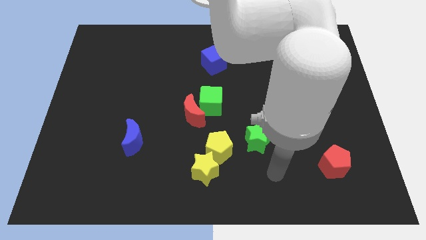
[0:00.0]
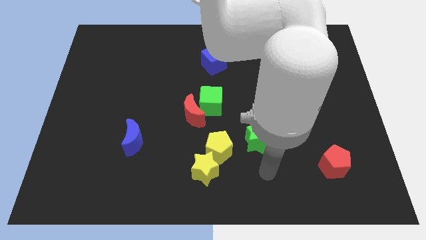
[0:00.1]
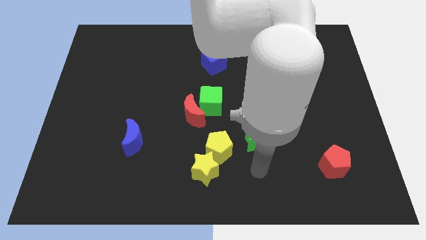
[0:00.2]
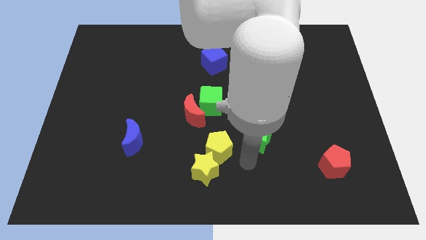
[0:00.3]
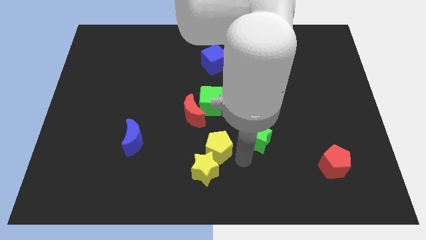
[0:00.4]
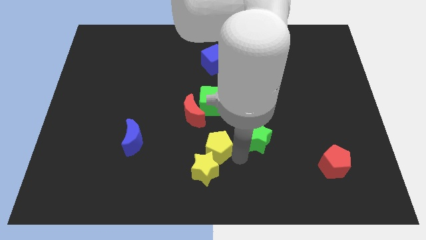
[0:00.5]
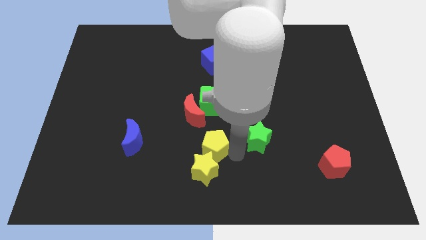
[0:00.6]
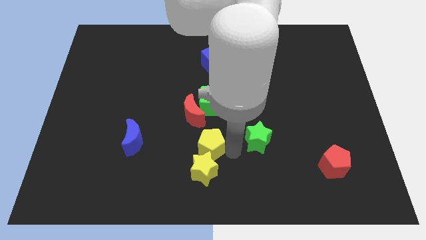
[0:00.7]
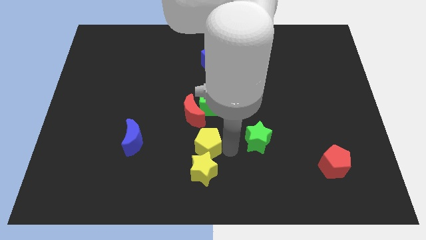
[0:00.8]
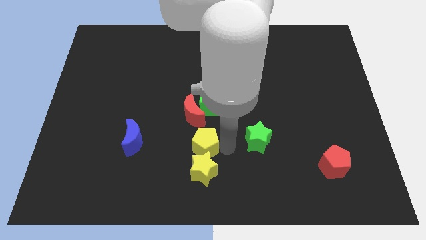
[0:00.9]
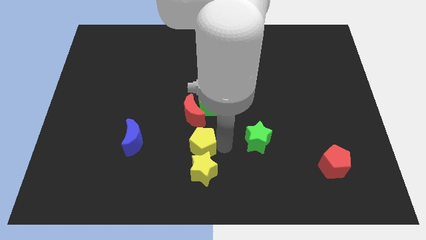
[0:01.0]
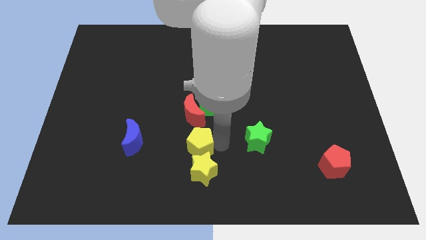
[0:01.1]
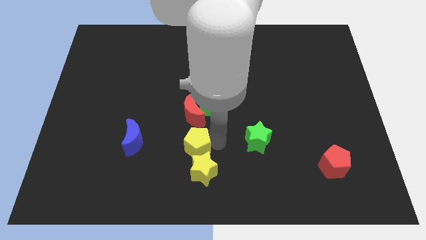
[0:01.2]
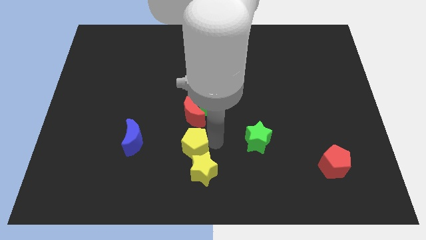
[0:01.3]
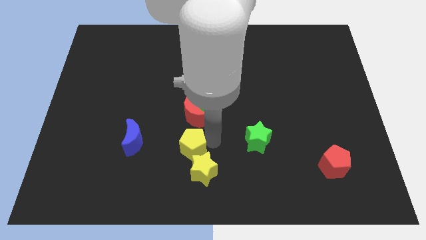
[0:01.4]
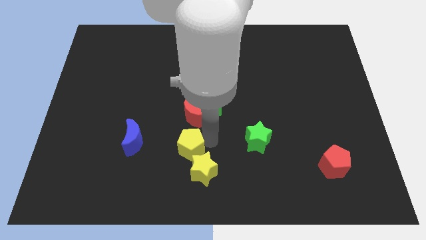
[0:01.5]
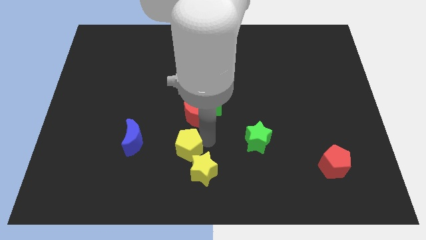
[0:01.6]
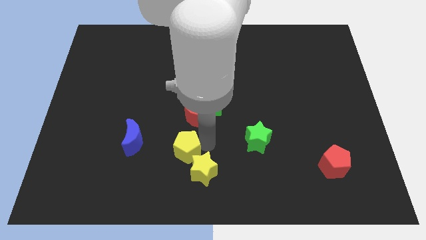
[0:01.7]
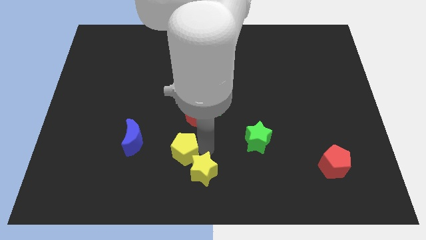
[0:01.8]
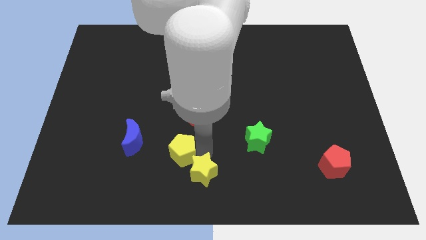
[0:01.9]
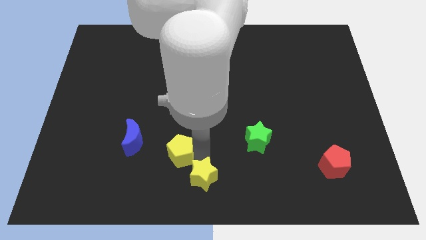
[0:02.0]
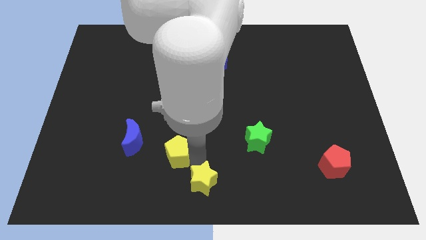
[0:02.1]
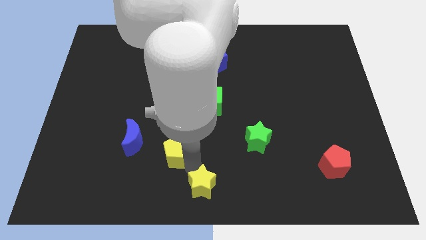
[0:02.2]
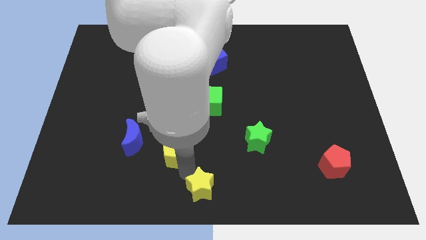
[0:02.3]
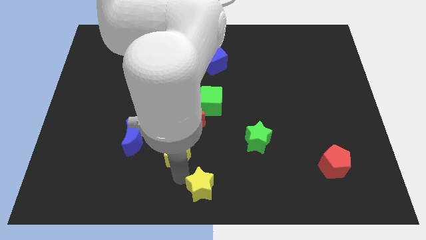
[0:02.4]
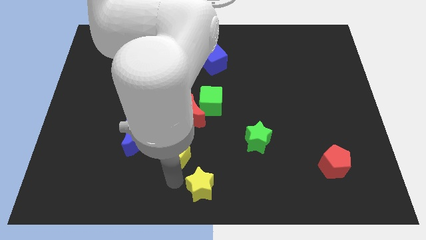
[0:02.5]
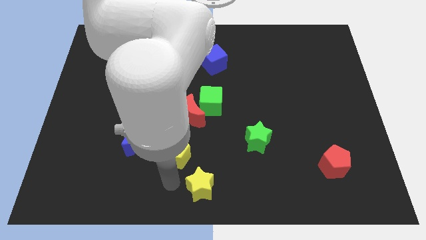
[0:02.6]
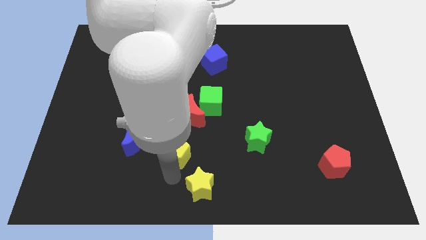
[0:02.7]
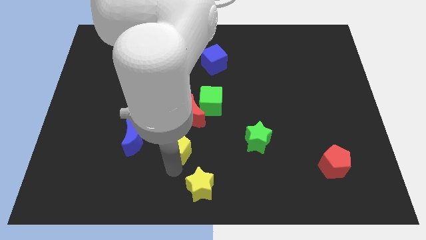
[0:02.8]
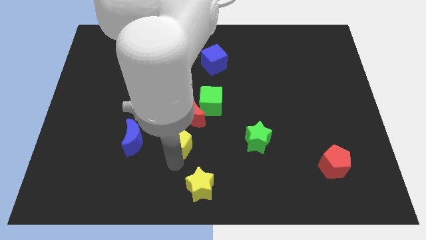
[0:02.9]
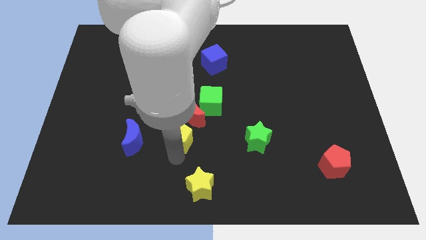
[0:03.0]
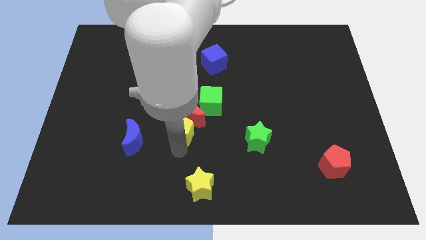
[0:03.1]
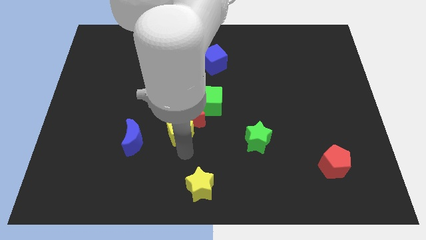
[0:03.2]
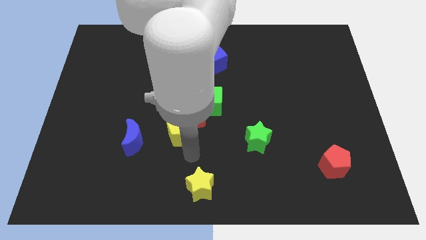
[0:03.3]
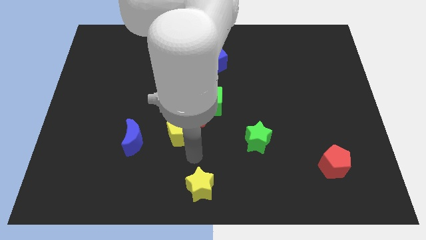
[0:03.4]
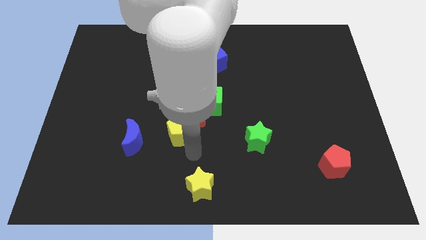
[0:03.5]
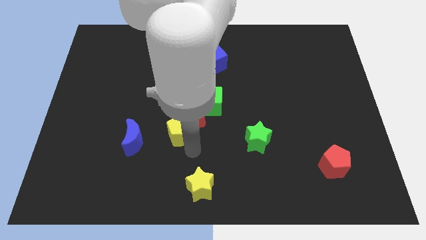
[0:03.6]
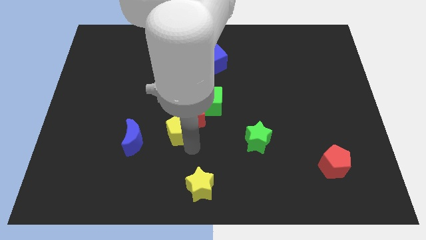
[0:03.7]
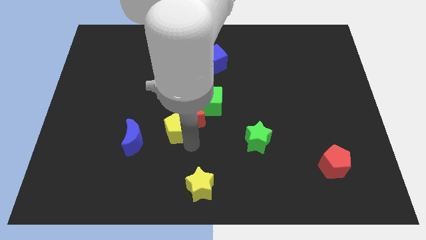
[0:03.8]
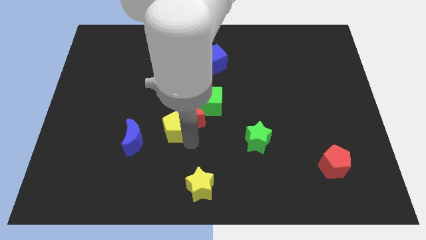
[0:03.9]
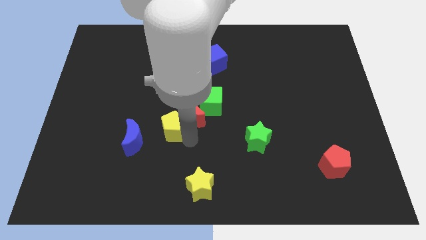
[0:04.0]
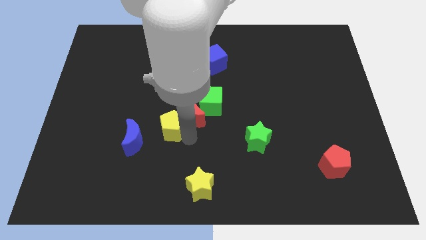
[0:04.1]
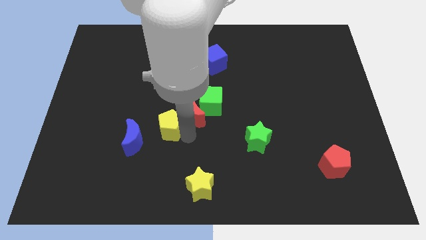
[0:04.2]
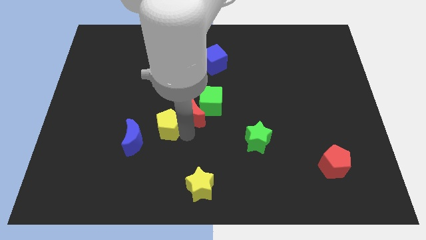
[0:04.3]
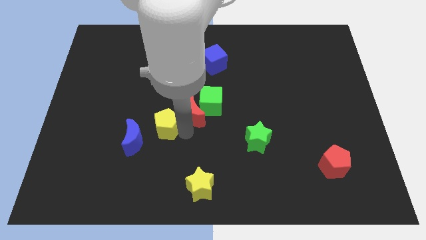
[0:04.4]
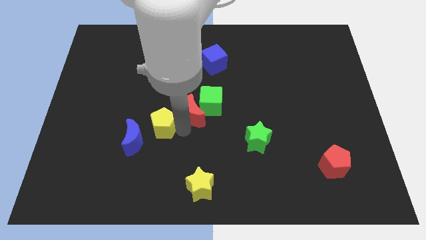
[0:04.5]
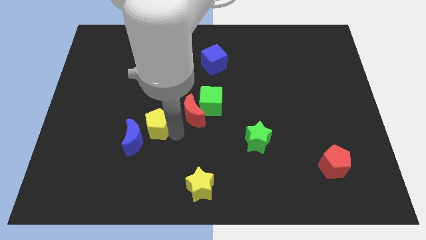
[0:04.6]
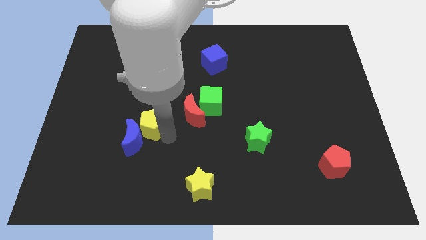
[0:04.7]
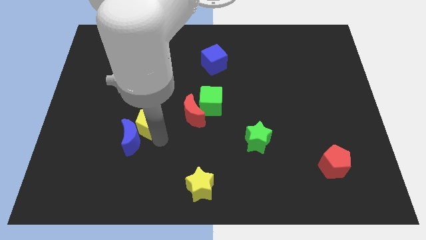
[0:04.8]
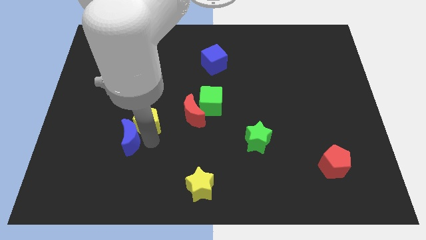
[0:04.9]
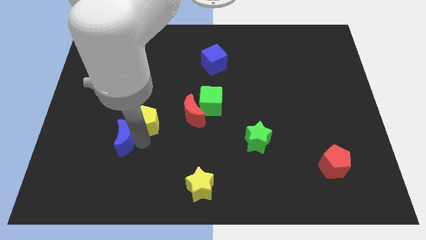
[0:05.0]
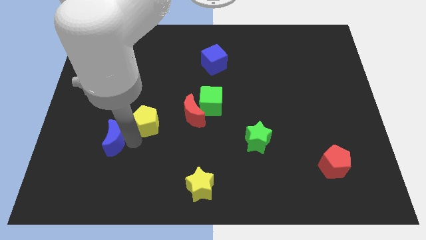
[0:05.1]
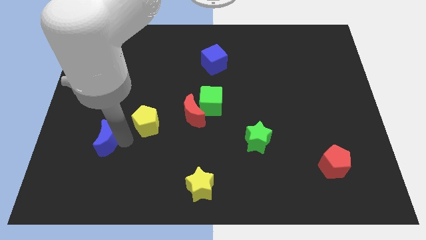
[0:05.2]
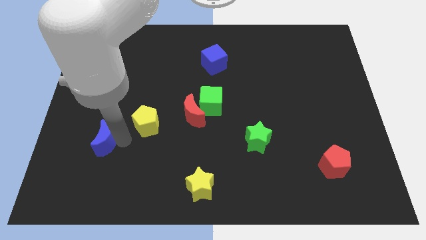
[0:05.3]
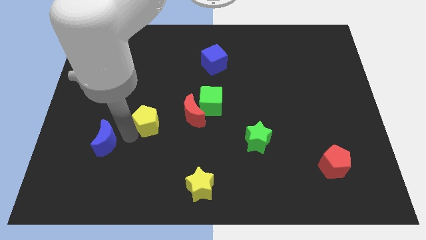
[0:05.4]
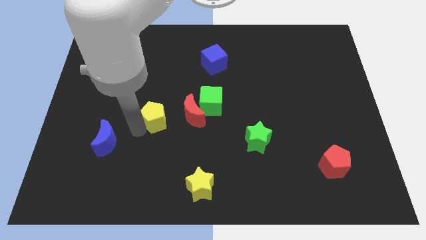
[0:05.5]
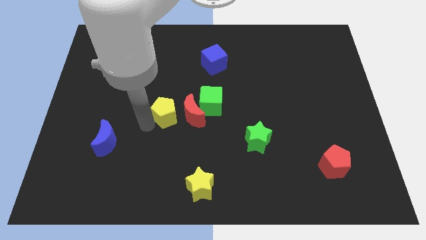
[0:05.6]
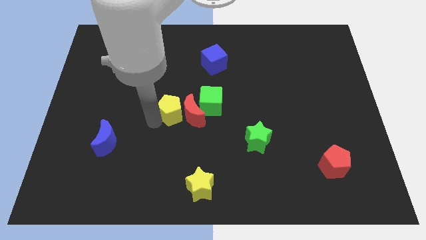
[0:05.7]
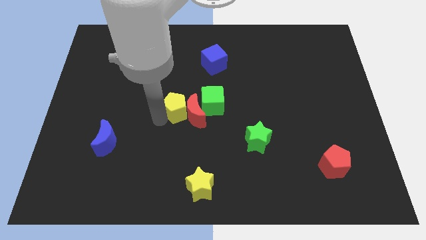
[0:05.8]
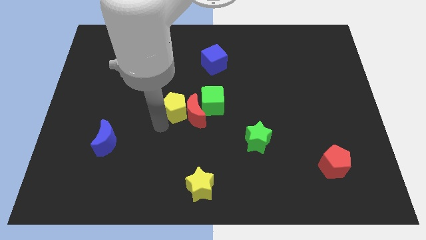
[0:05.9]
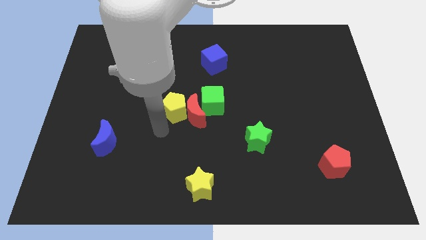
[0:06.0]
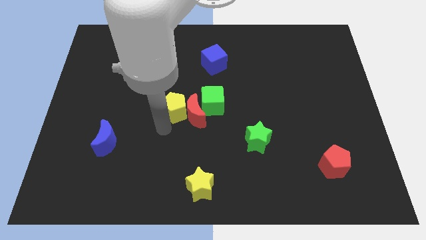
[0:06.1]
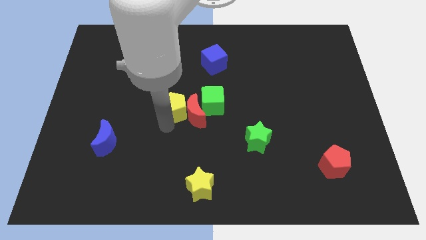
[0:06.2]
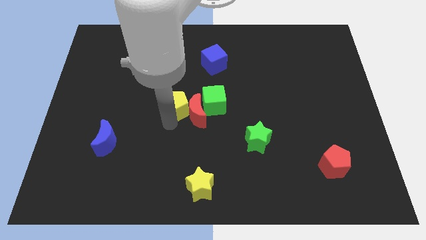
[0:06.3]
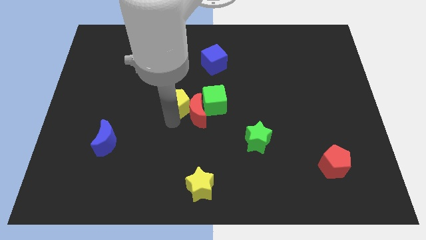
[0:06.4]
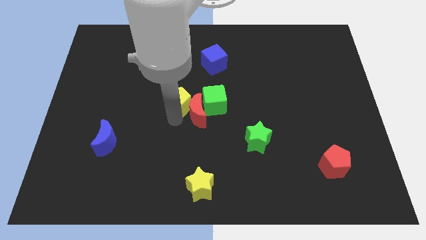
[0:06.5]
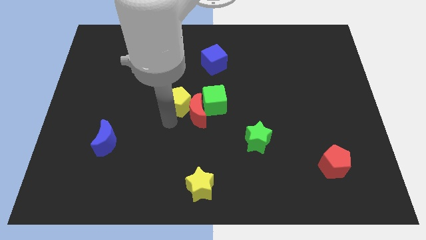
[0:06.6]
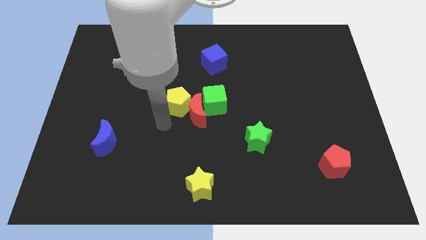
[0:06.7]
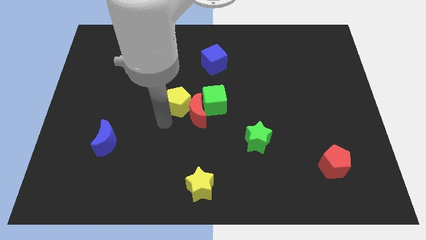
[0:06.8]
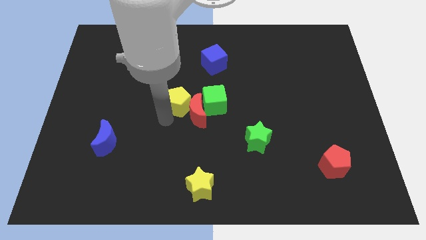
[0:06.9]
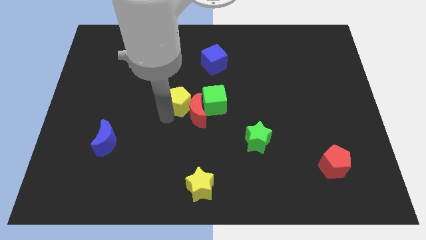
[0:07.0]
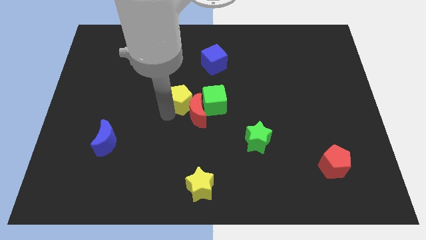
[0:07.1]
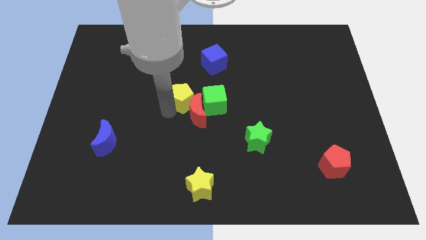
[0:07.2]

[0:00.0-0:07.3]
move the yellow pentagon to the top left of the green cube
